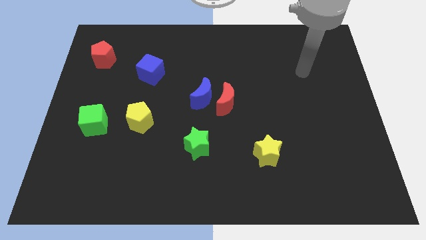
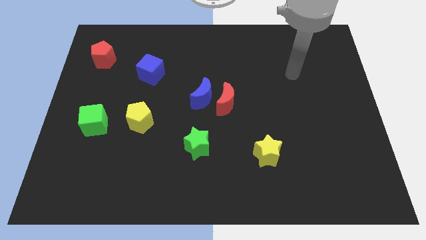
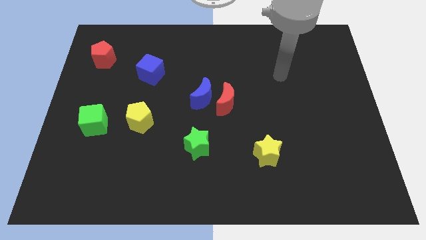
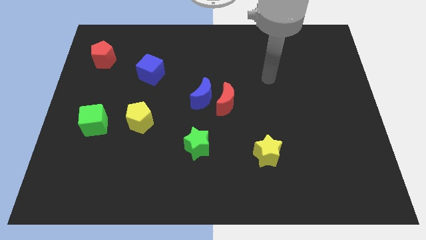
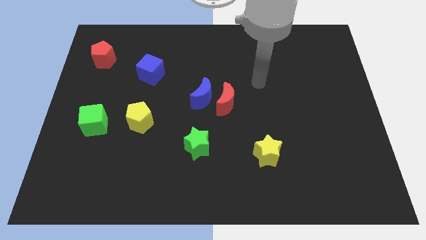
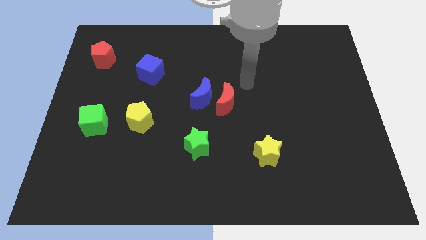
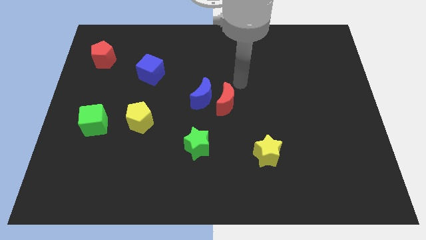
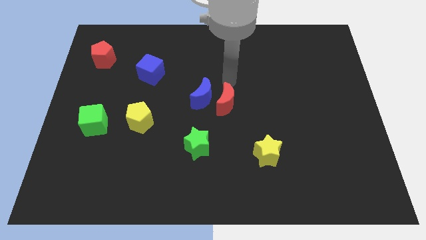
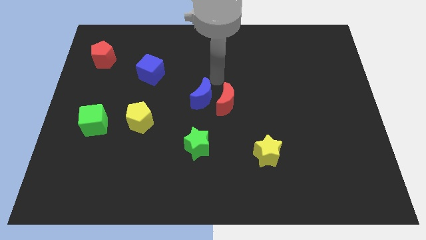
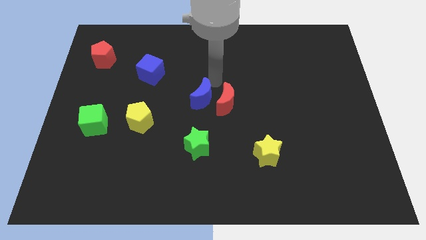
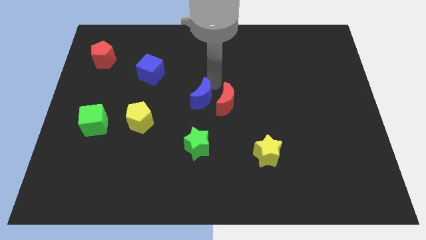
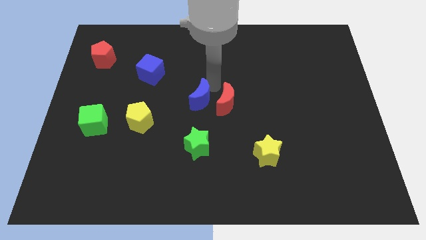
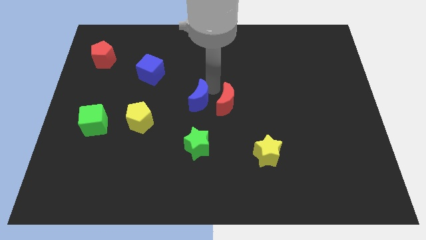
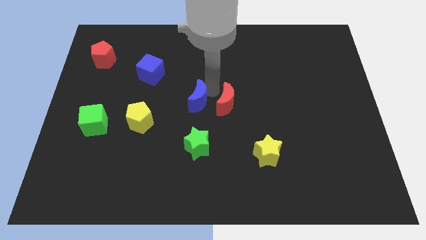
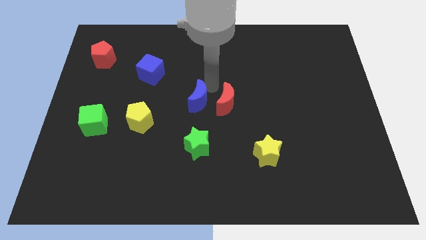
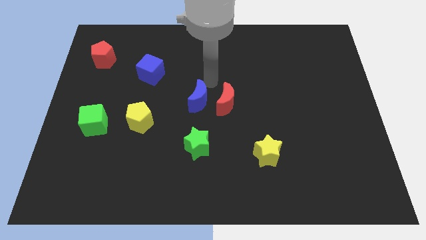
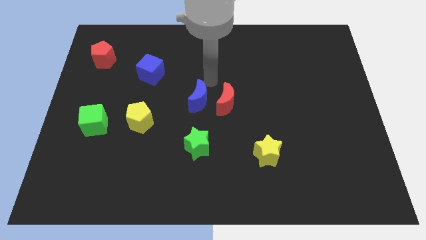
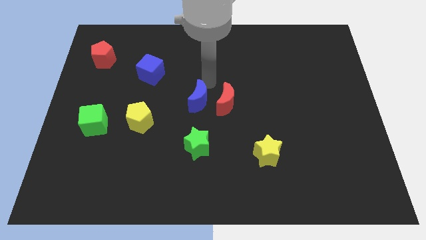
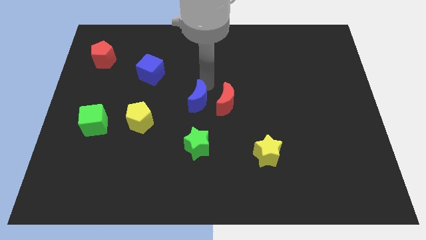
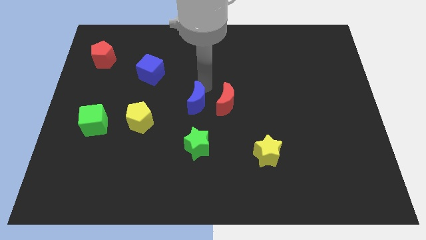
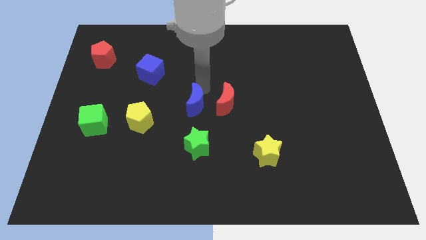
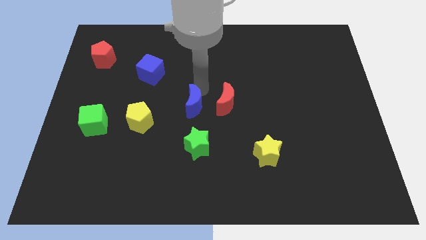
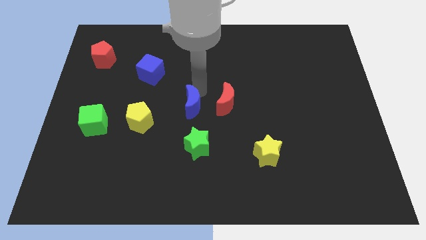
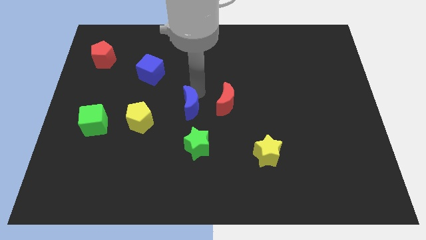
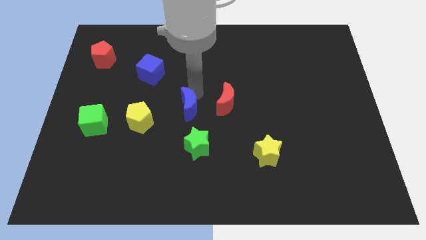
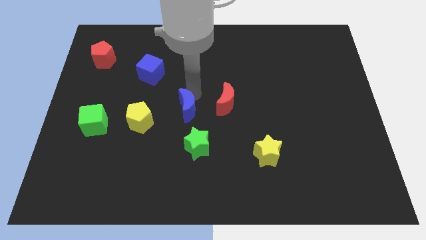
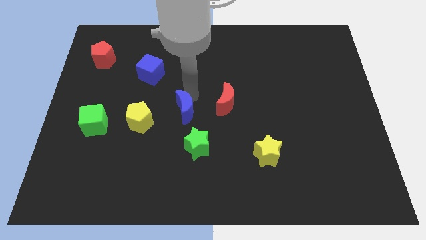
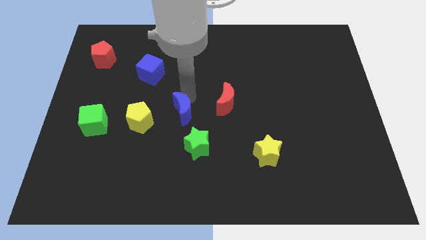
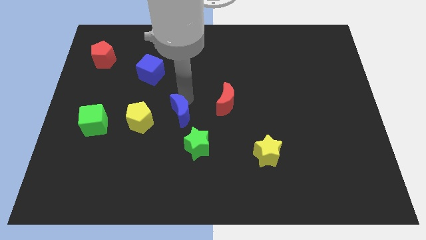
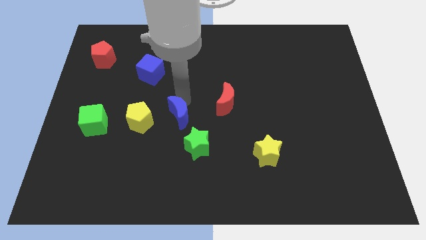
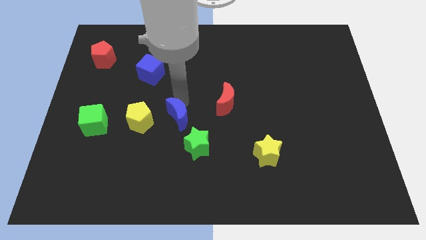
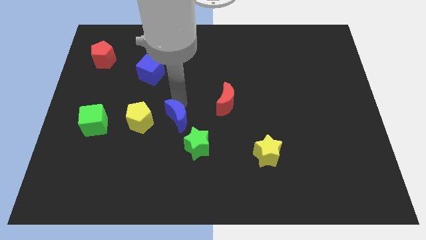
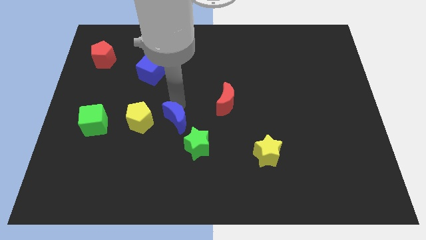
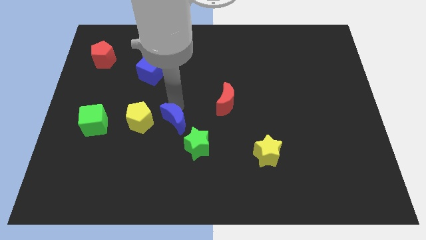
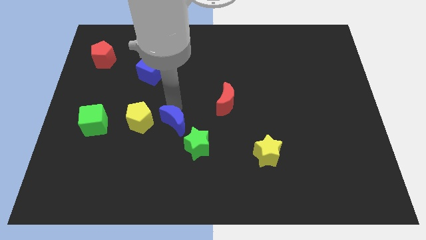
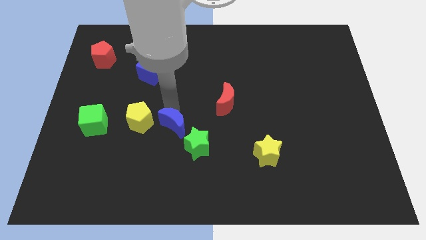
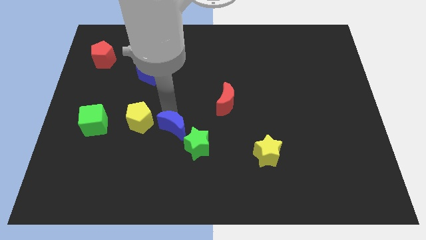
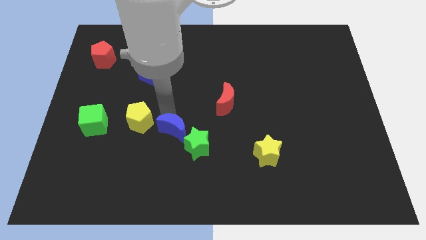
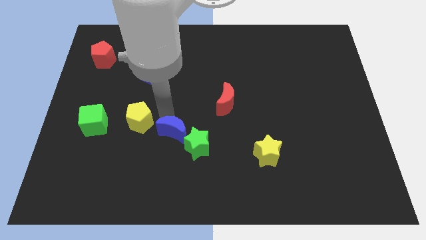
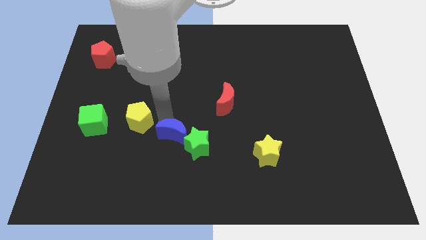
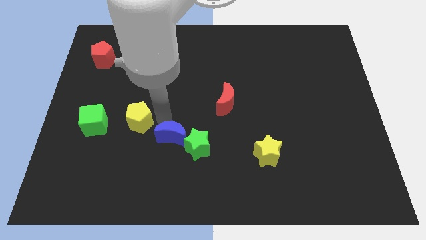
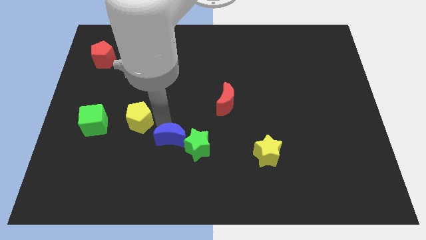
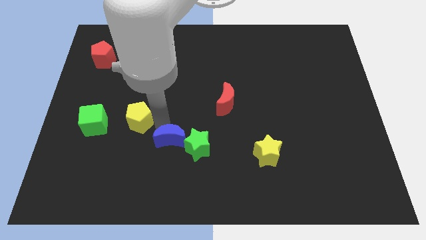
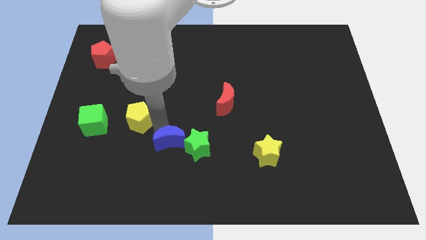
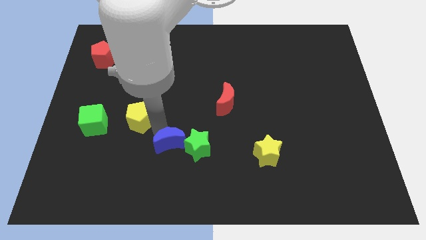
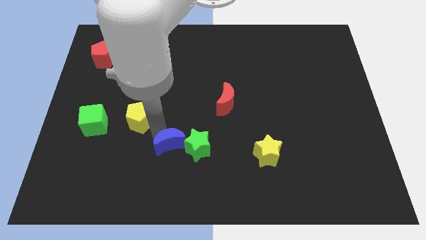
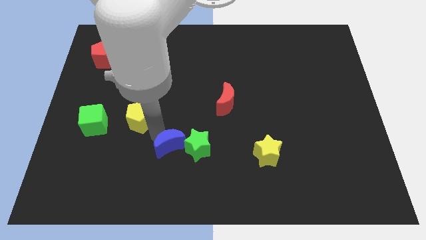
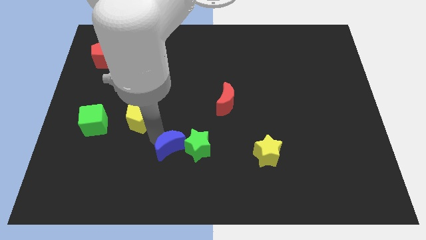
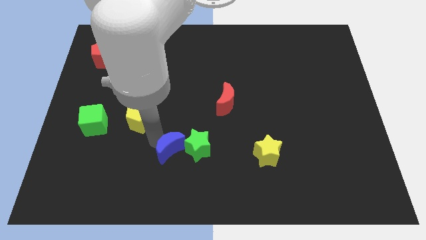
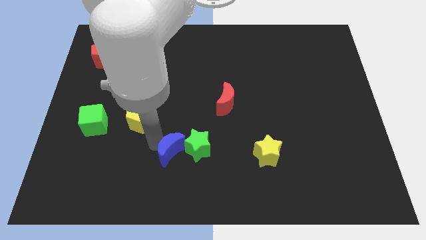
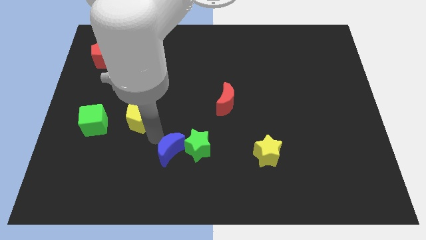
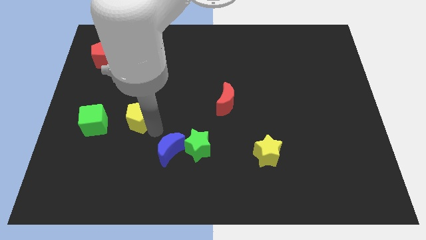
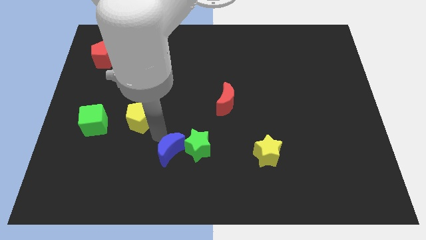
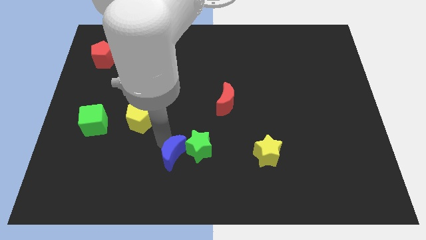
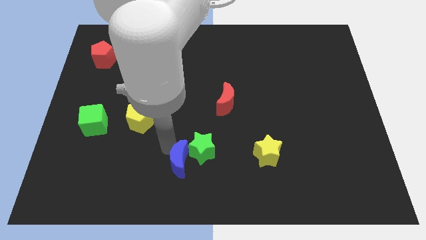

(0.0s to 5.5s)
slide the blue moon to the bottom side

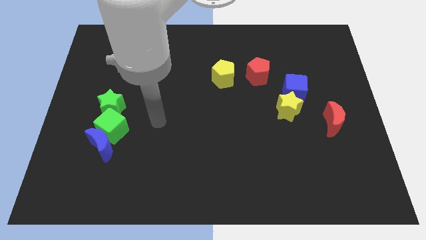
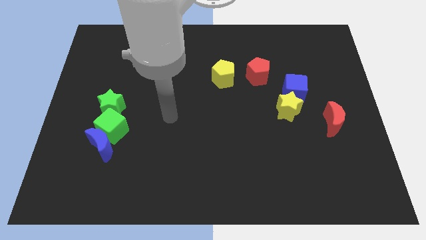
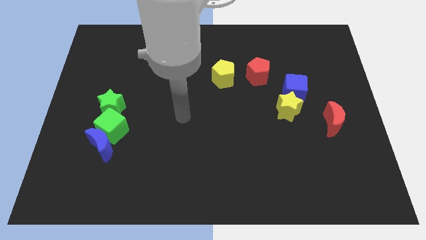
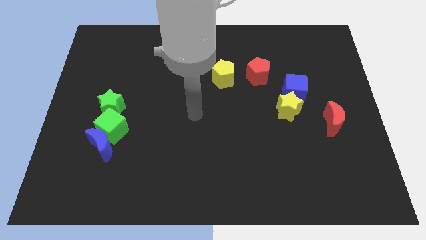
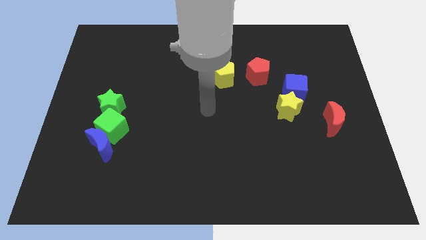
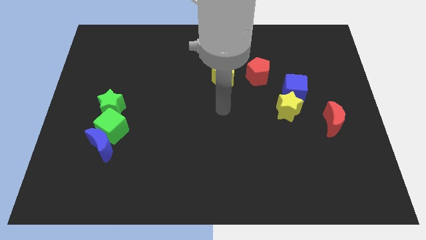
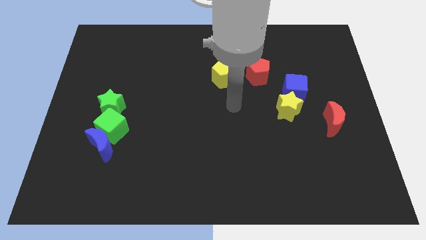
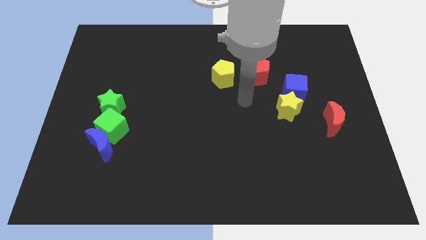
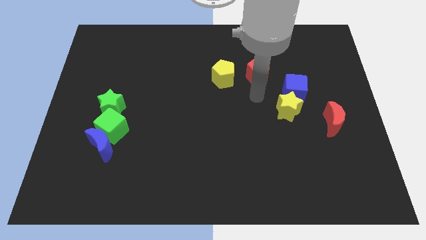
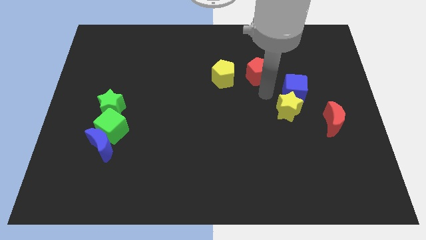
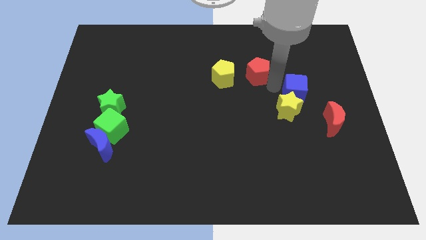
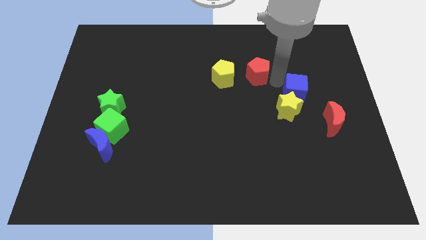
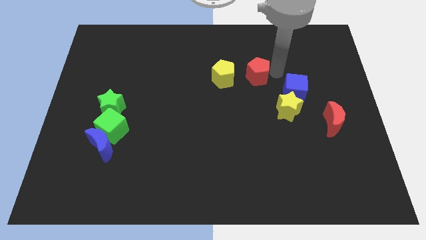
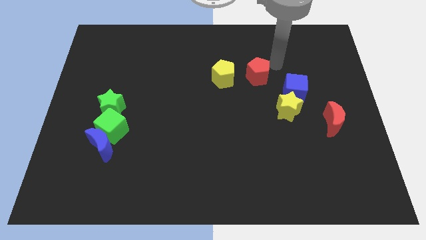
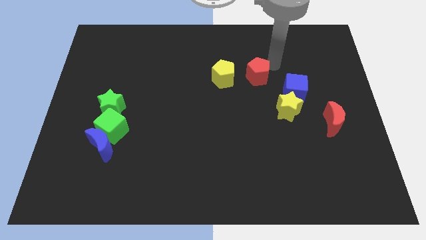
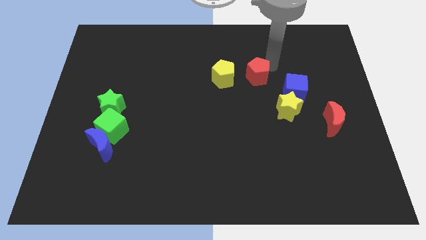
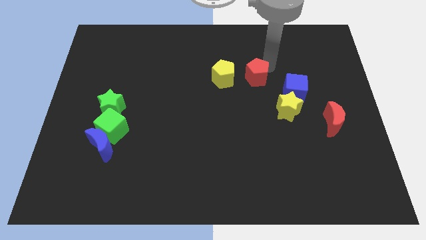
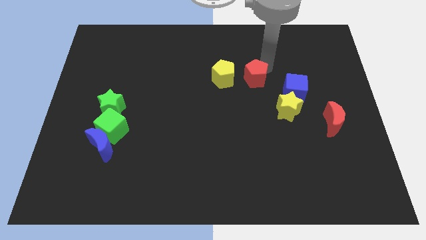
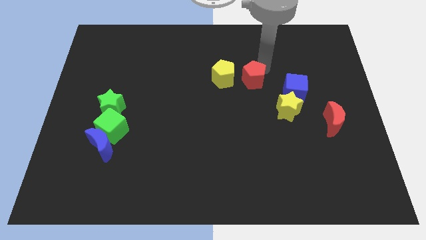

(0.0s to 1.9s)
move the red pentagon to the center of the board
